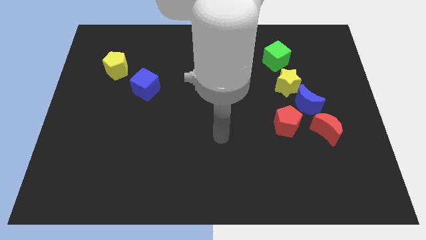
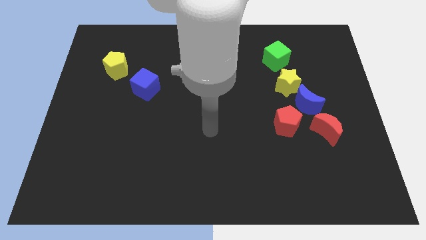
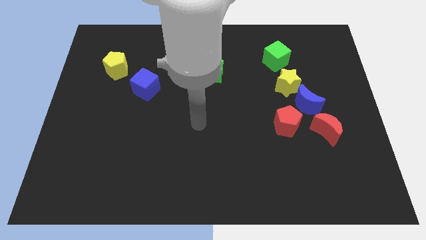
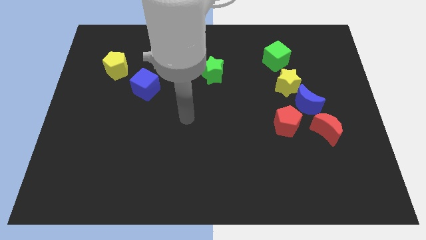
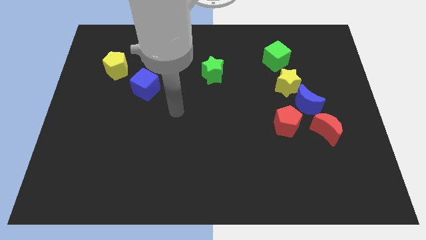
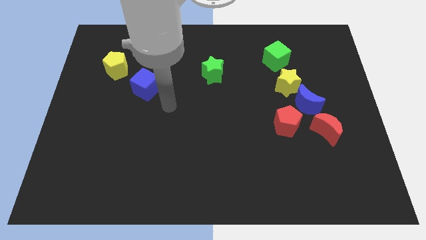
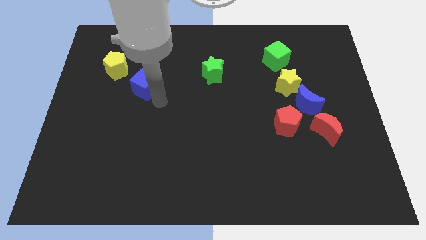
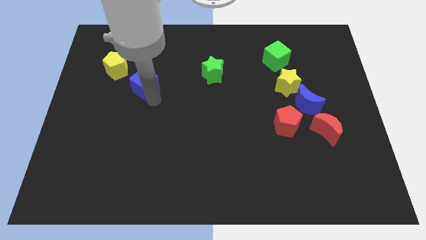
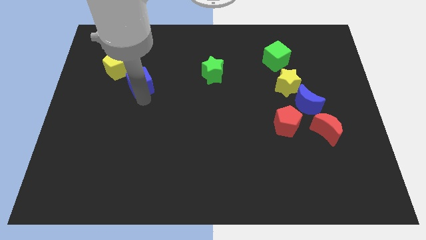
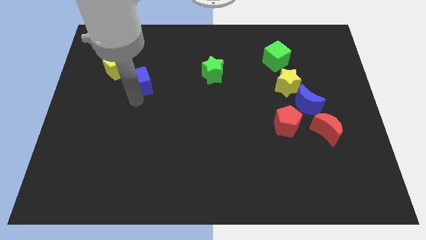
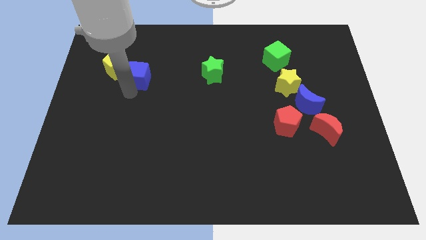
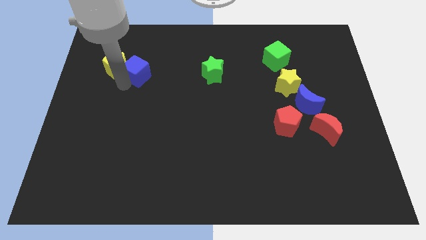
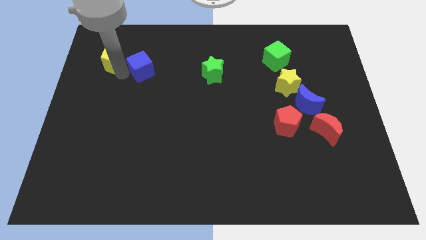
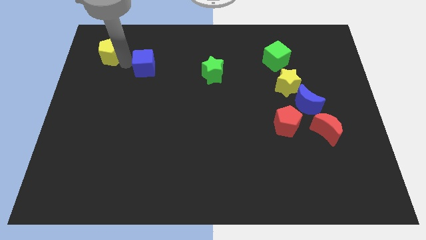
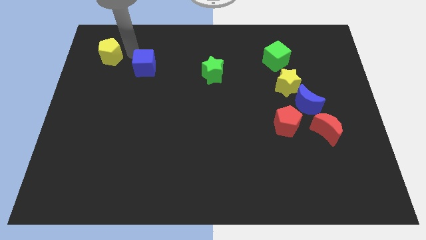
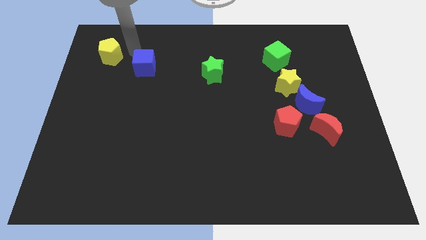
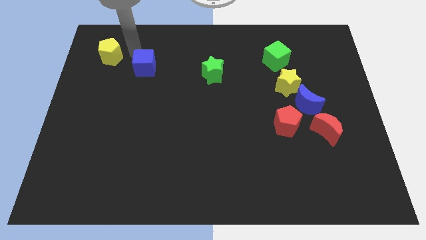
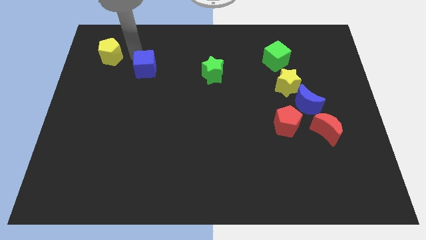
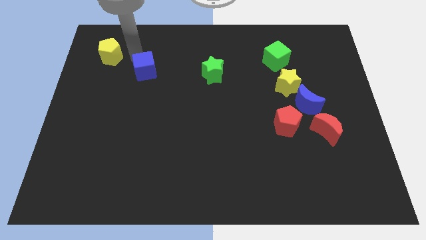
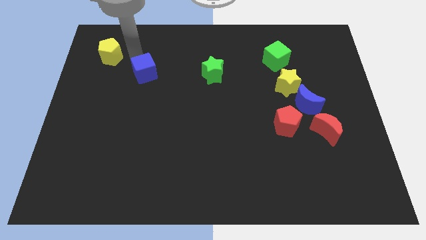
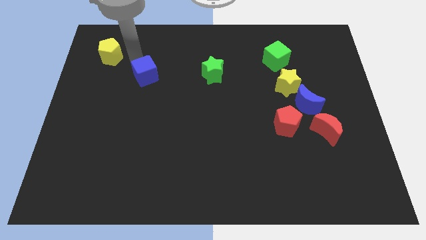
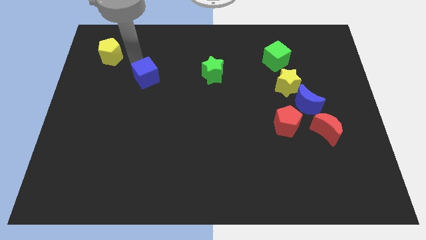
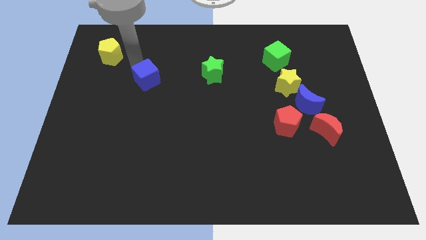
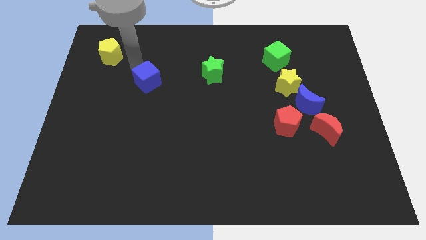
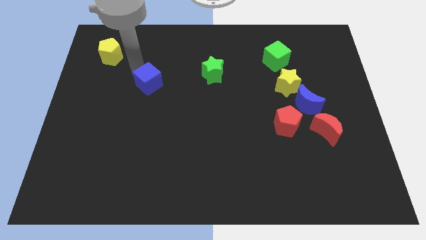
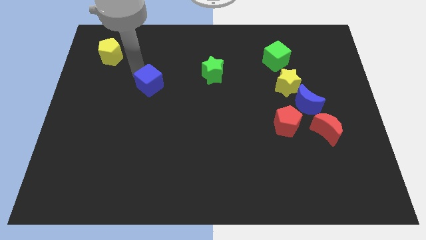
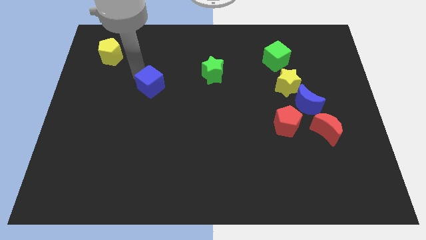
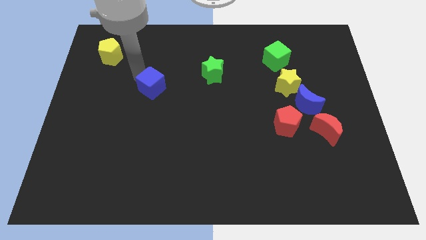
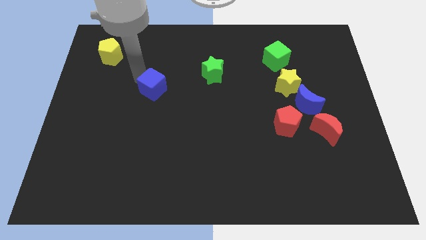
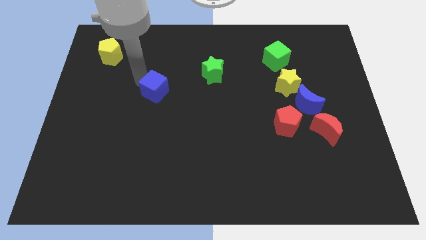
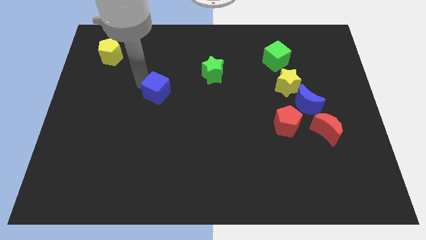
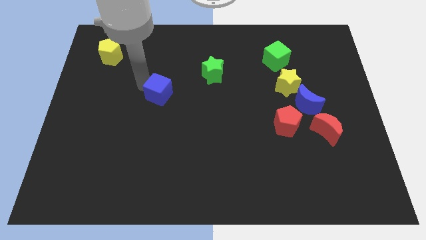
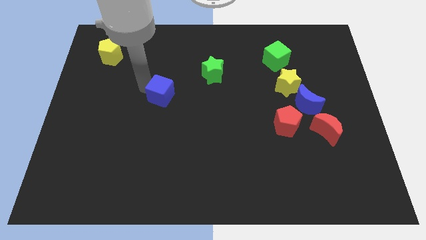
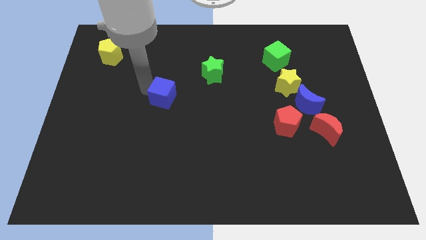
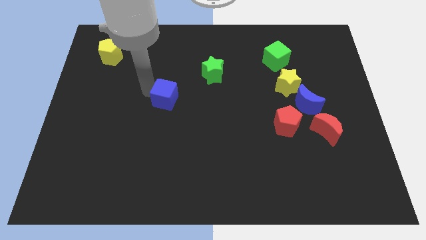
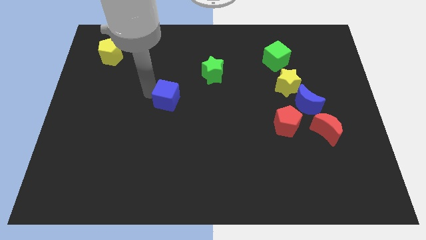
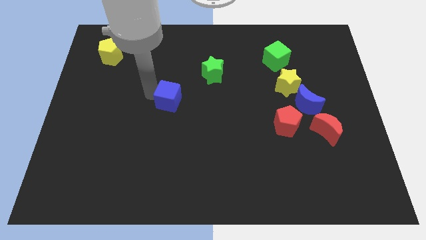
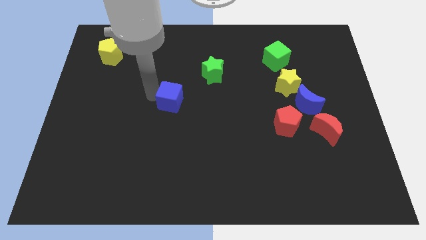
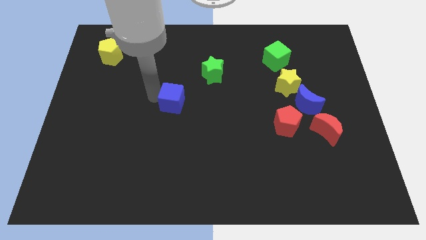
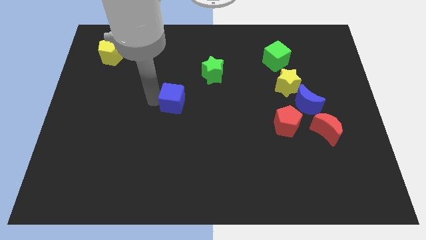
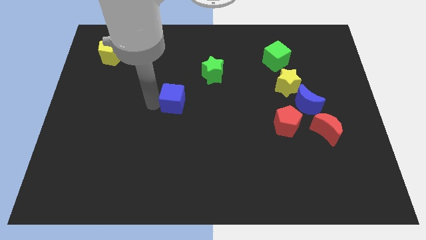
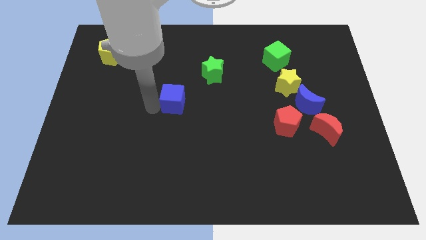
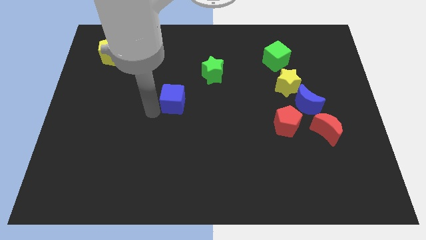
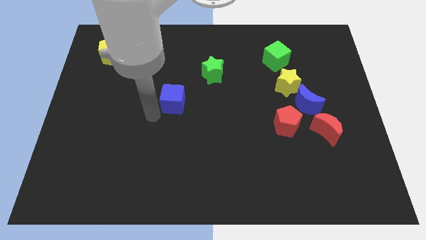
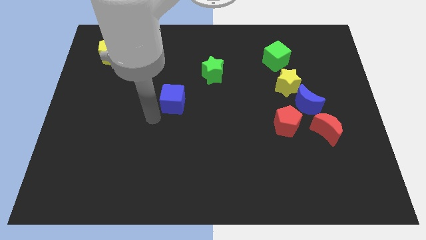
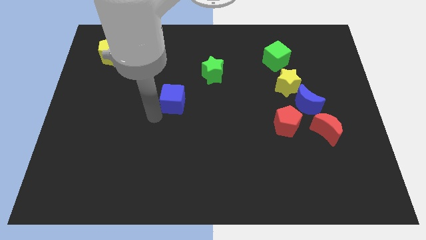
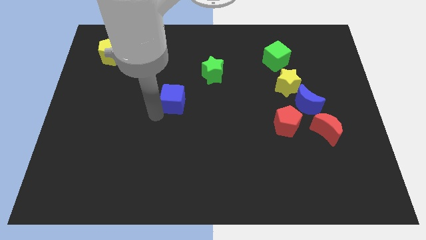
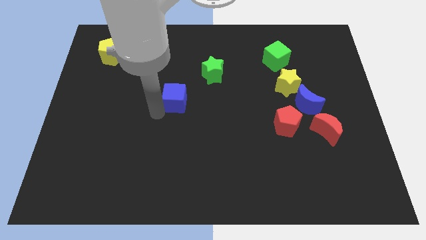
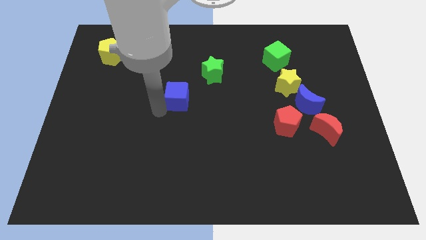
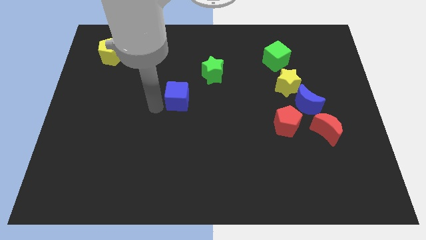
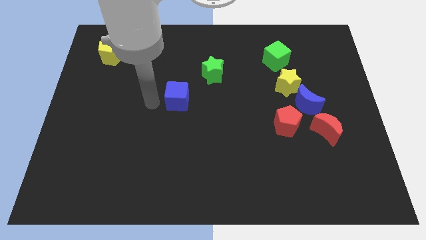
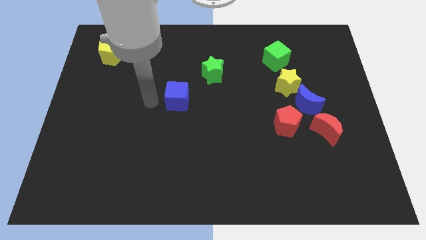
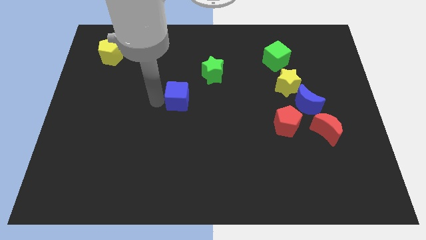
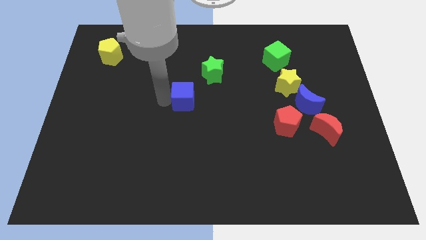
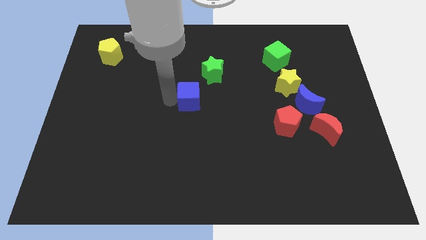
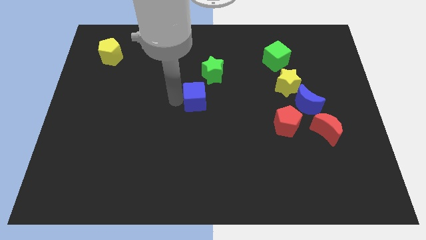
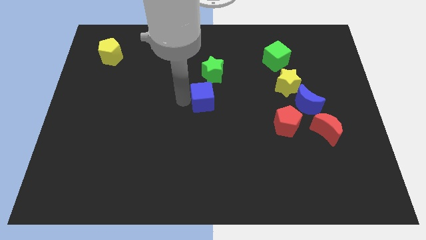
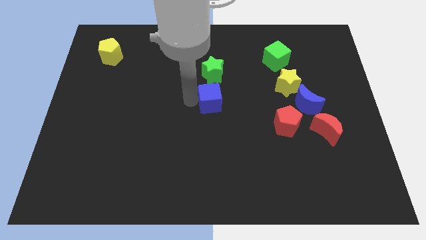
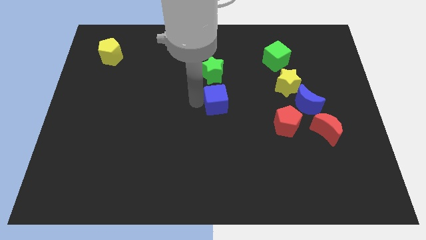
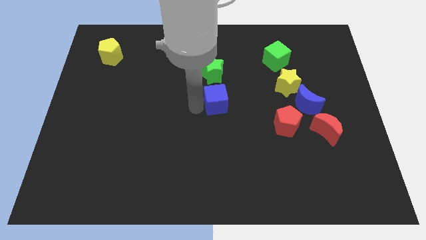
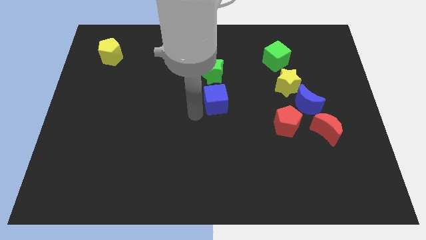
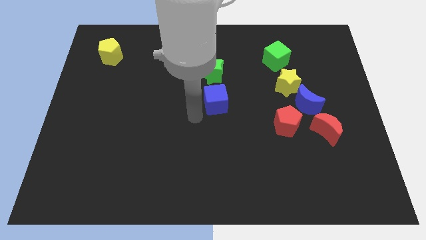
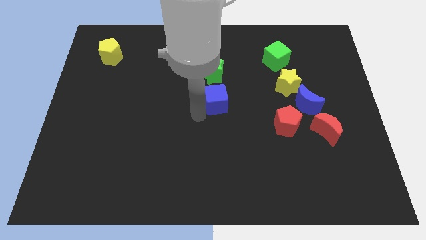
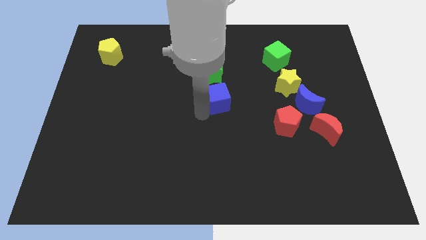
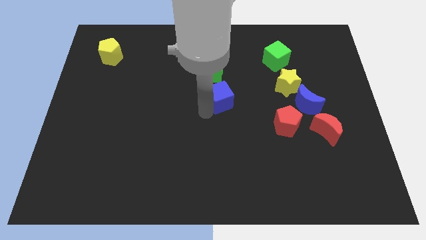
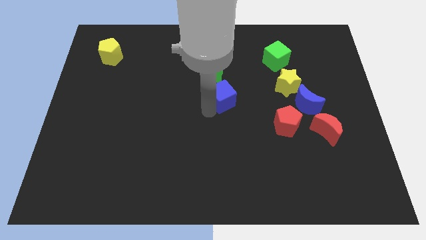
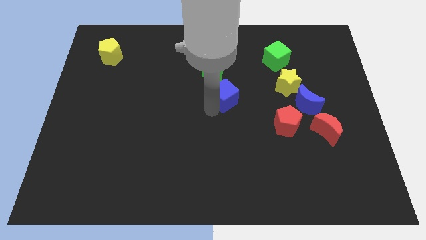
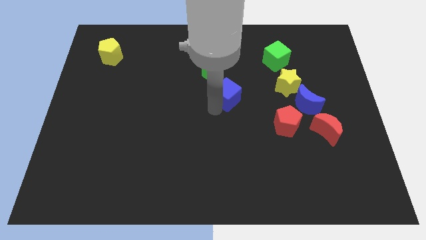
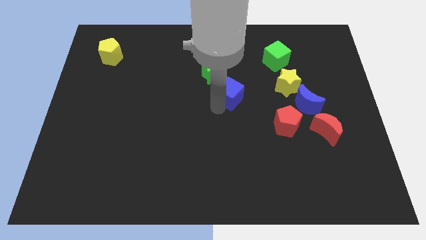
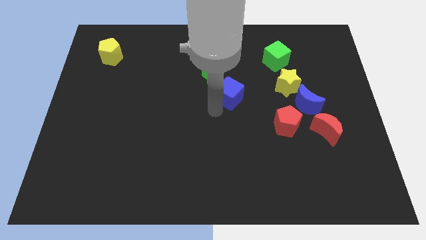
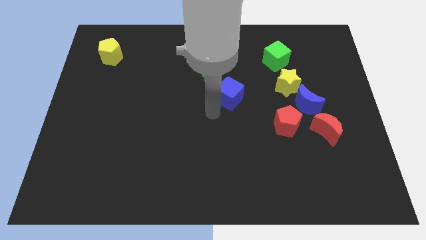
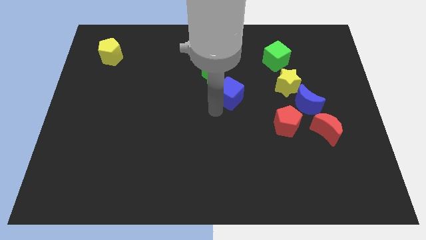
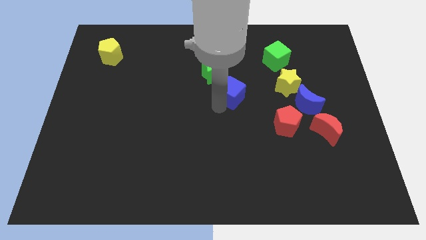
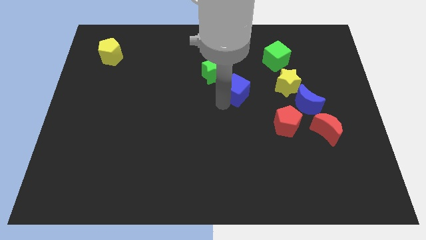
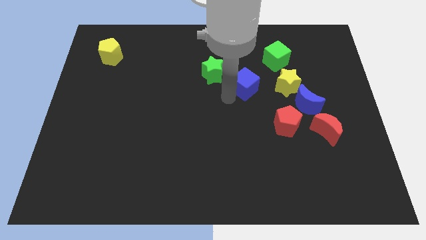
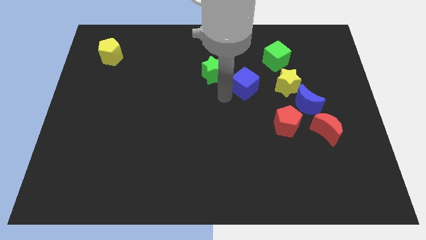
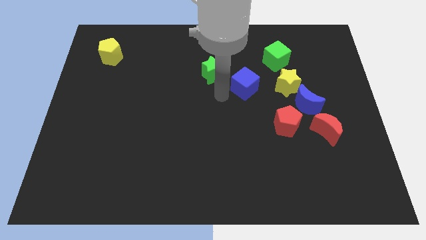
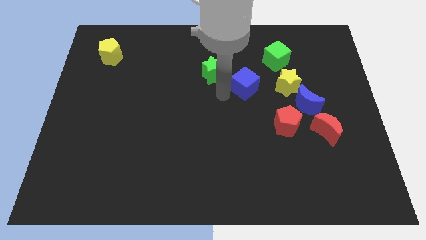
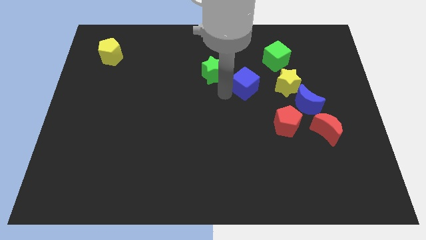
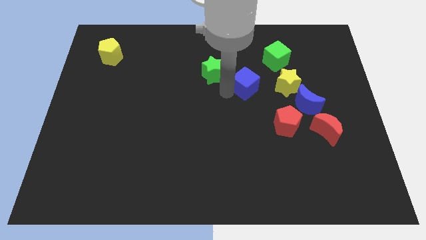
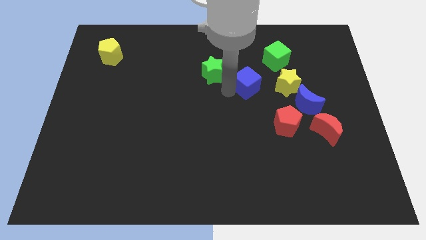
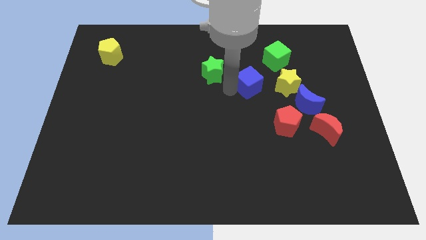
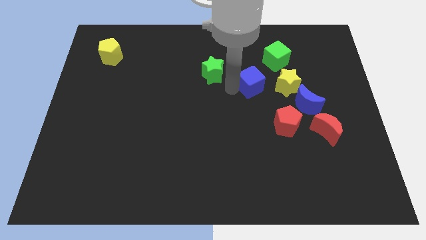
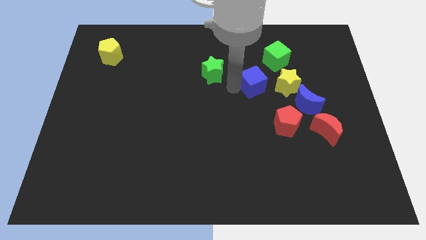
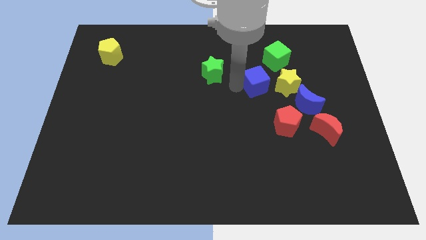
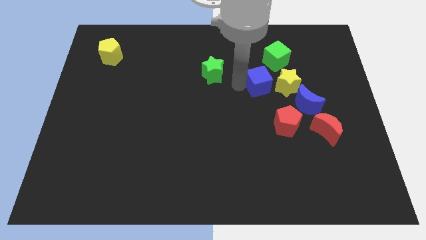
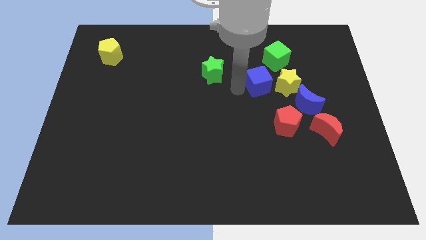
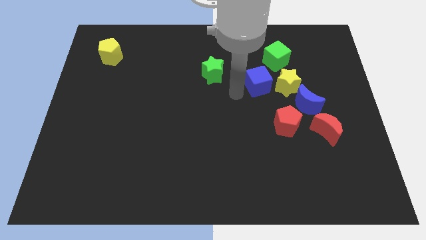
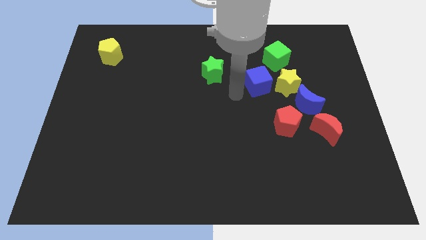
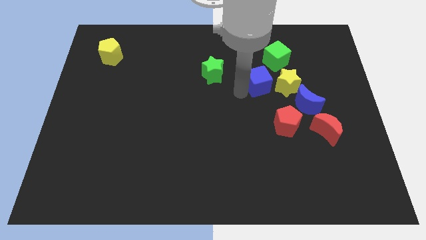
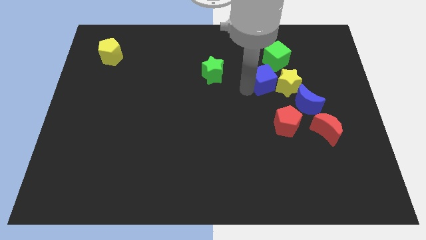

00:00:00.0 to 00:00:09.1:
push the blue cube above the red pentagon

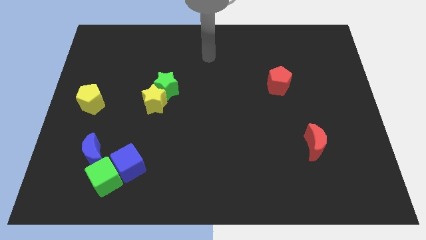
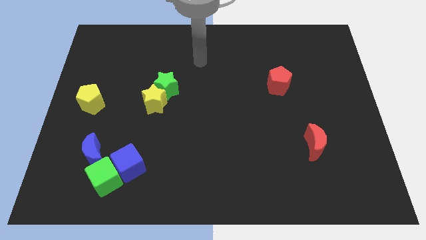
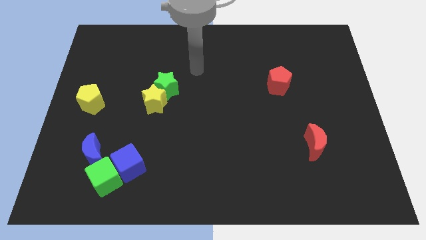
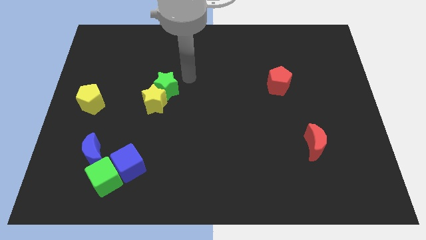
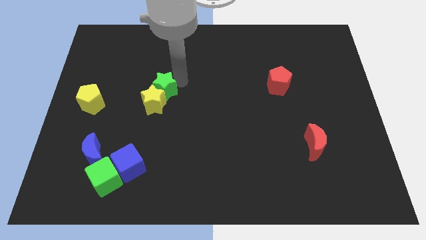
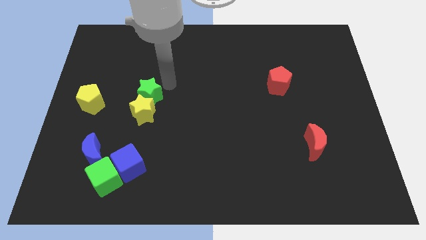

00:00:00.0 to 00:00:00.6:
put the yellow star above the blue cube
